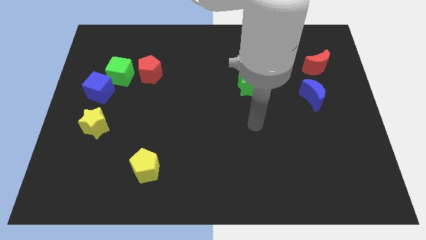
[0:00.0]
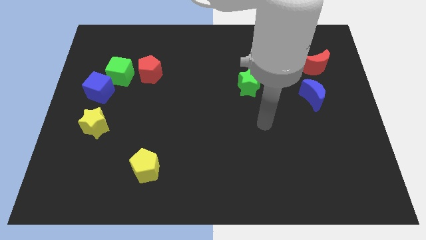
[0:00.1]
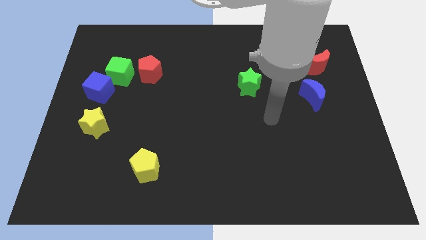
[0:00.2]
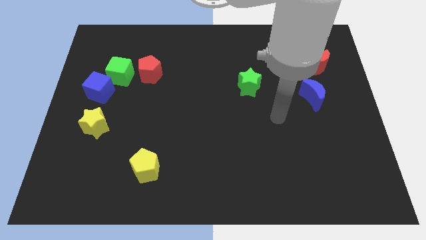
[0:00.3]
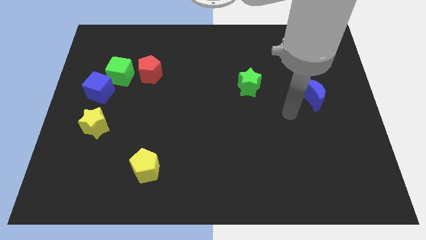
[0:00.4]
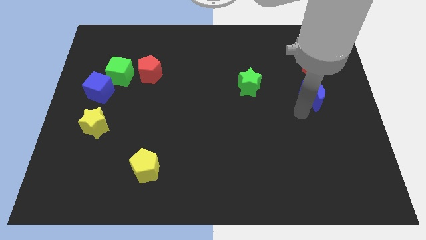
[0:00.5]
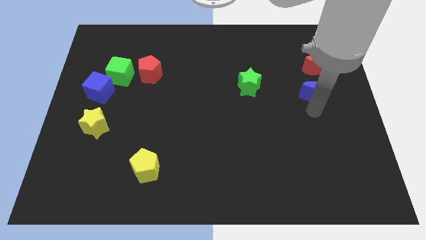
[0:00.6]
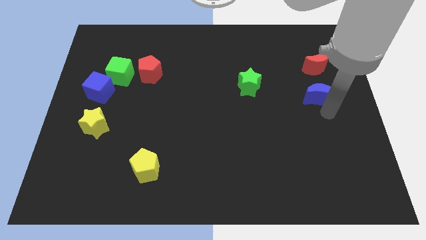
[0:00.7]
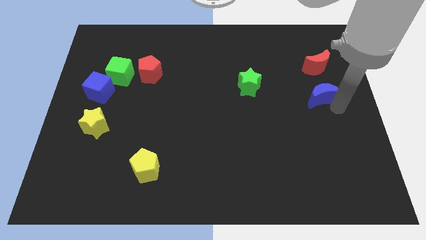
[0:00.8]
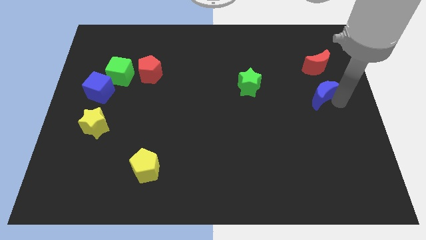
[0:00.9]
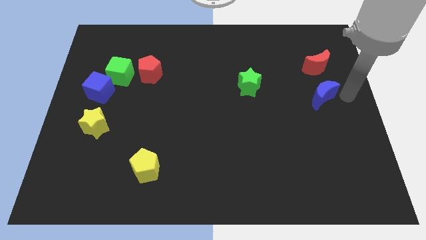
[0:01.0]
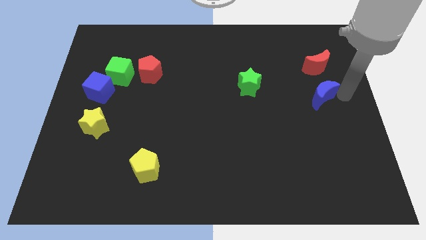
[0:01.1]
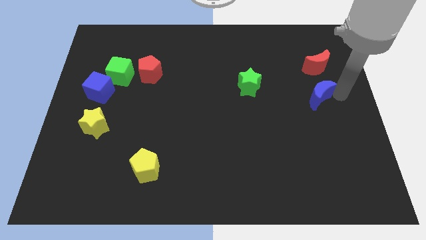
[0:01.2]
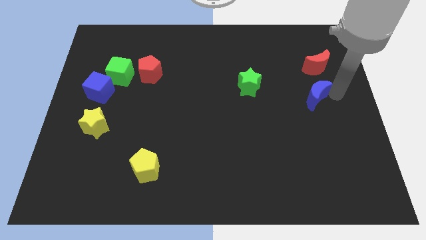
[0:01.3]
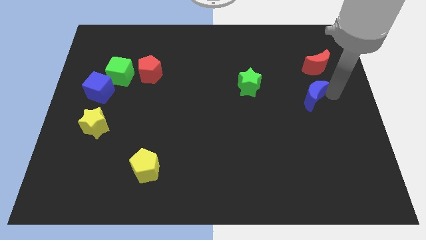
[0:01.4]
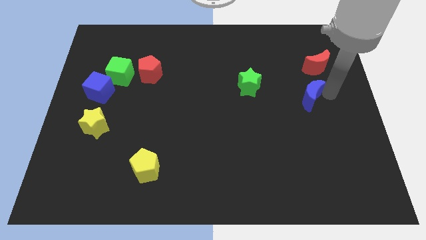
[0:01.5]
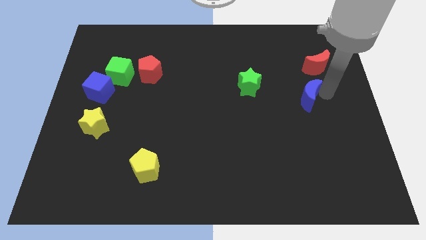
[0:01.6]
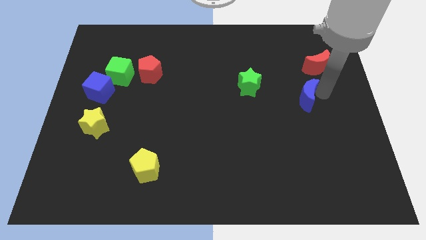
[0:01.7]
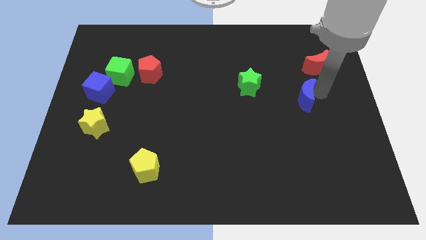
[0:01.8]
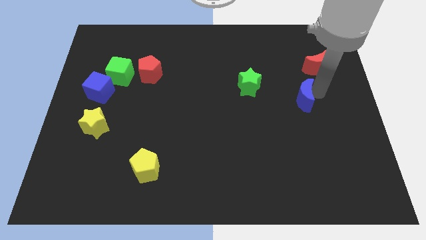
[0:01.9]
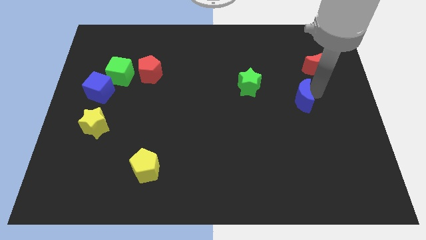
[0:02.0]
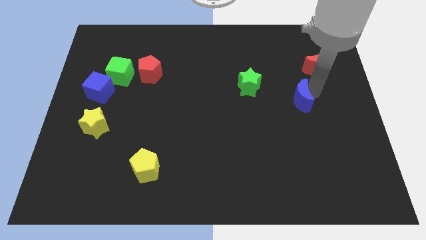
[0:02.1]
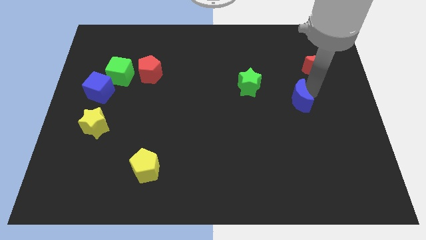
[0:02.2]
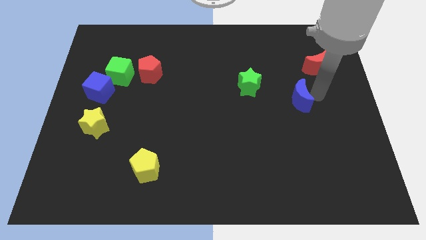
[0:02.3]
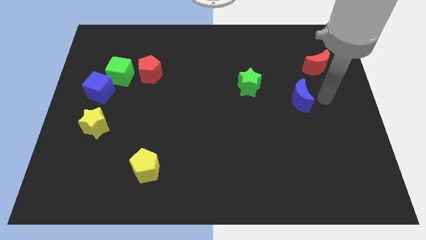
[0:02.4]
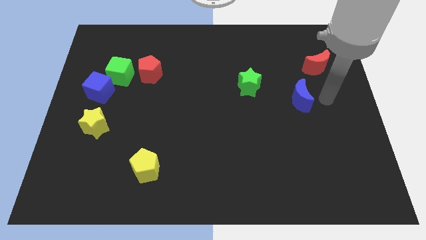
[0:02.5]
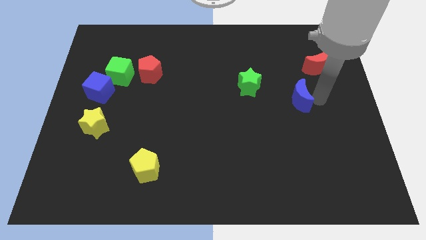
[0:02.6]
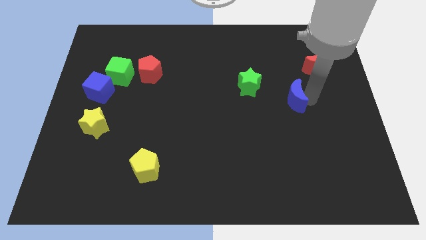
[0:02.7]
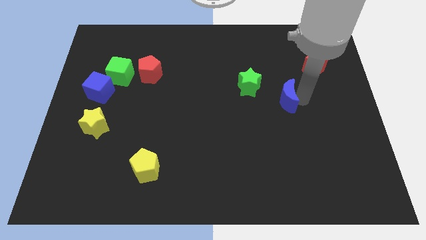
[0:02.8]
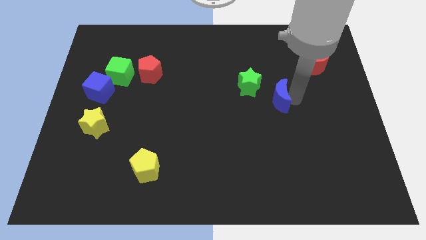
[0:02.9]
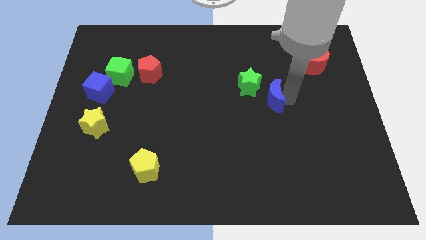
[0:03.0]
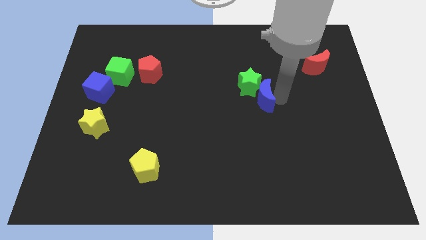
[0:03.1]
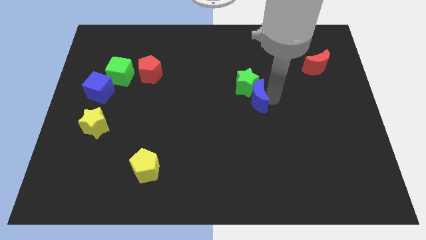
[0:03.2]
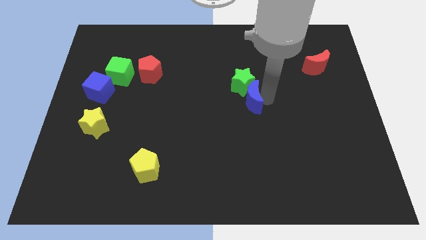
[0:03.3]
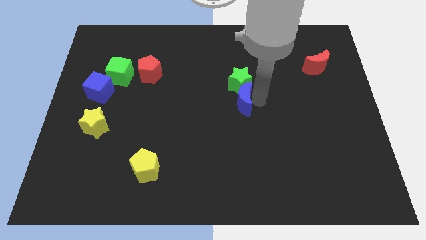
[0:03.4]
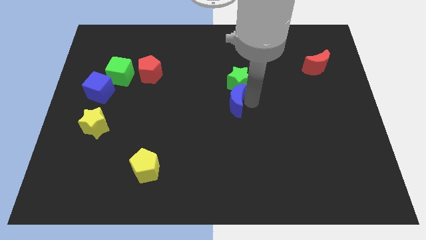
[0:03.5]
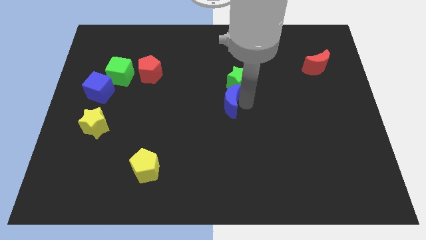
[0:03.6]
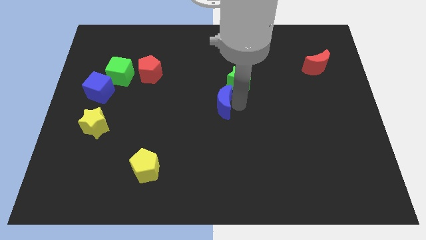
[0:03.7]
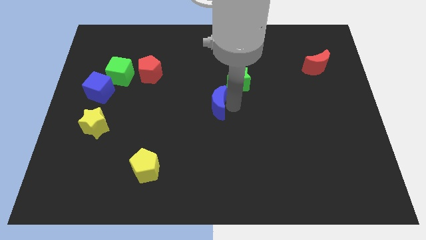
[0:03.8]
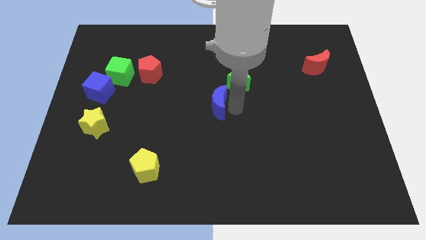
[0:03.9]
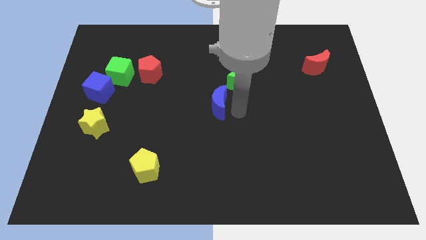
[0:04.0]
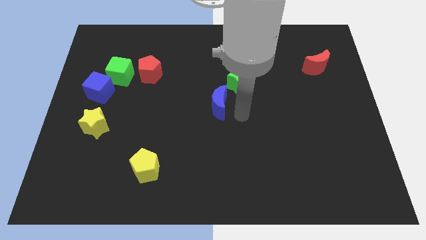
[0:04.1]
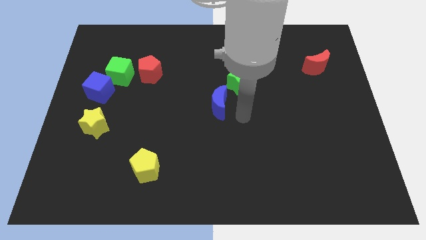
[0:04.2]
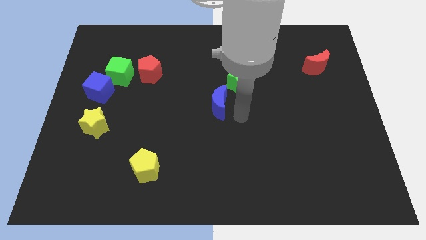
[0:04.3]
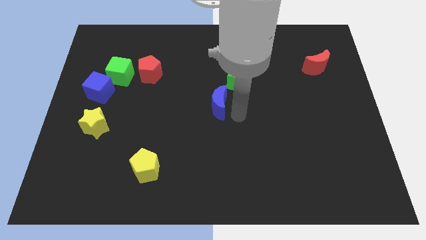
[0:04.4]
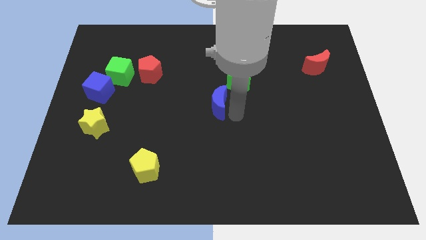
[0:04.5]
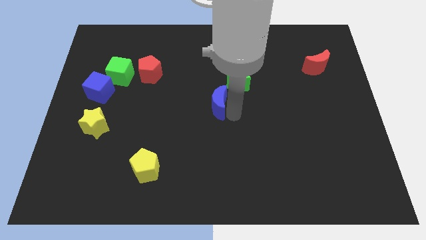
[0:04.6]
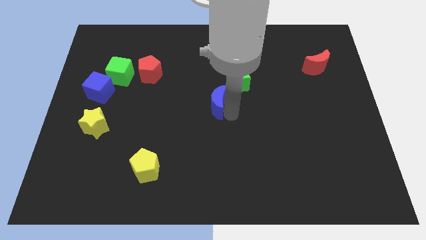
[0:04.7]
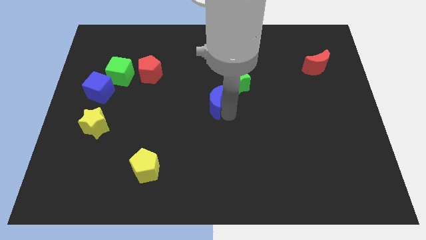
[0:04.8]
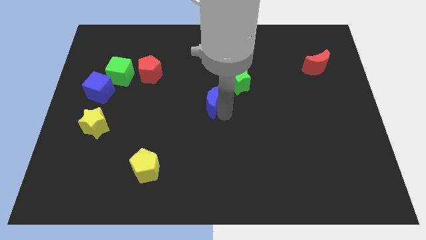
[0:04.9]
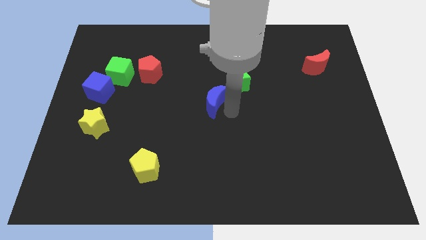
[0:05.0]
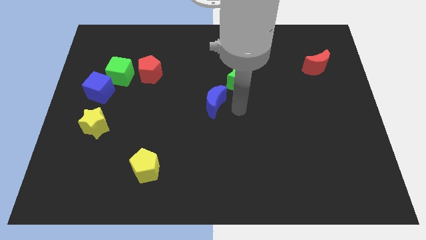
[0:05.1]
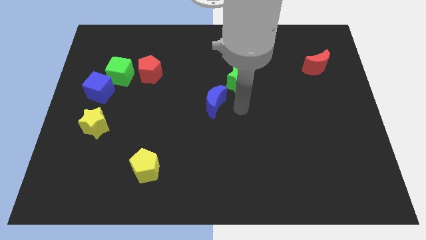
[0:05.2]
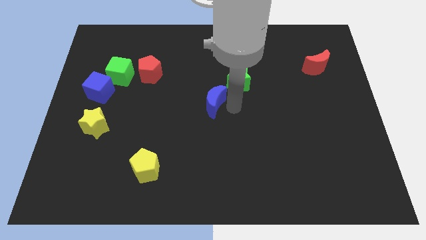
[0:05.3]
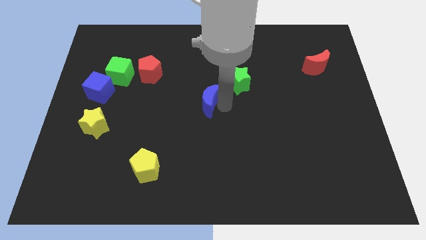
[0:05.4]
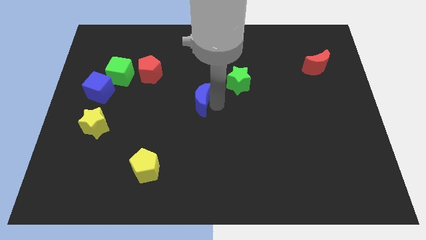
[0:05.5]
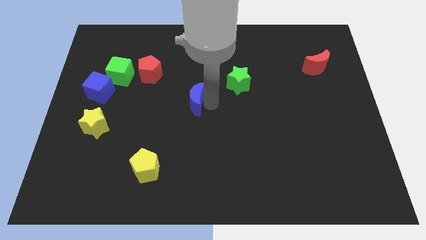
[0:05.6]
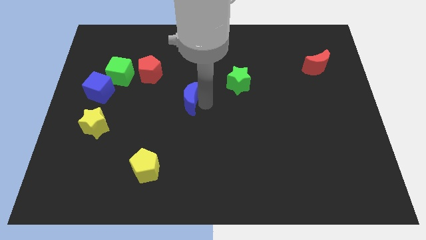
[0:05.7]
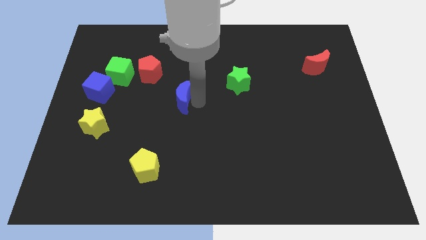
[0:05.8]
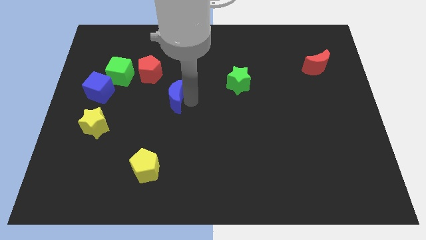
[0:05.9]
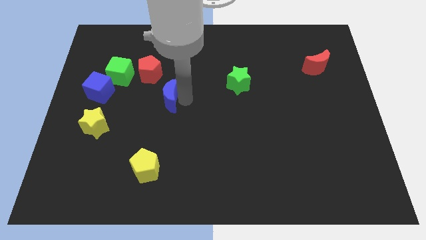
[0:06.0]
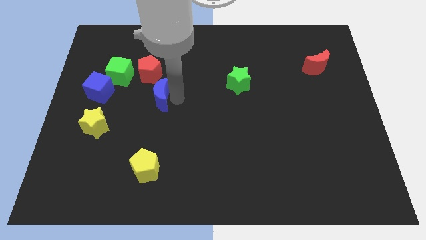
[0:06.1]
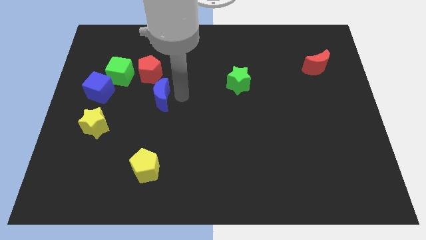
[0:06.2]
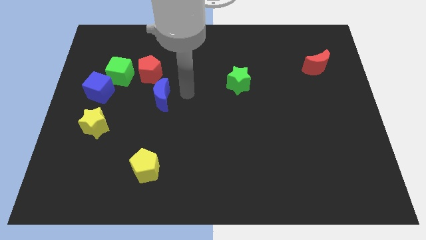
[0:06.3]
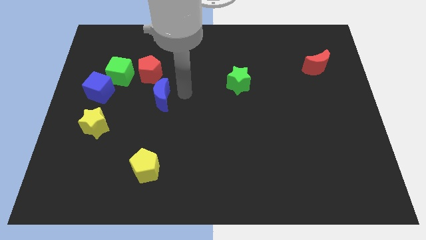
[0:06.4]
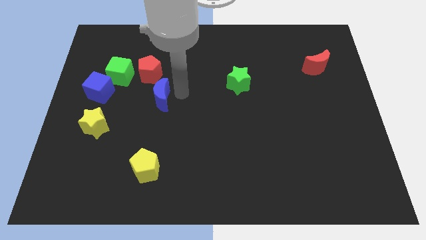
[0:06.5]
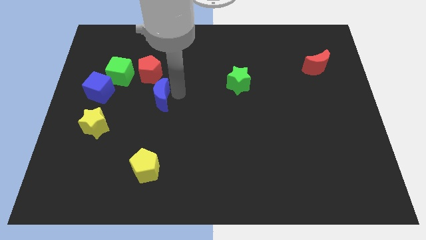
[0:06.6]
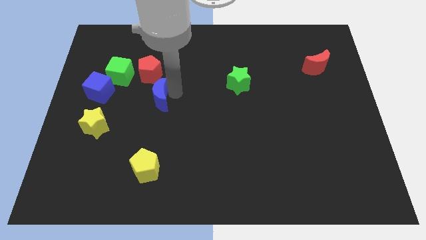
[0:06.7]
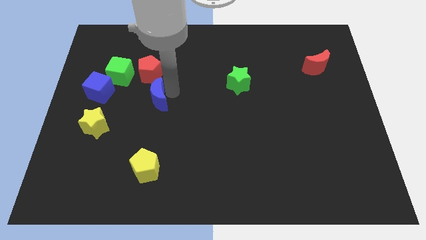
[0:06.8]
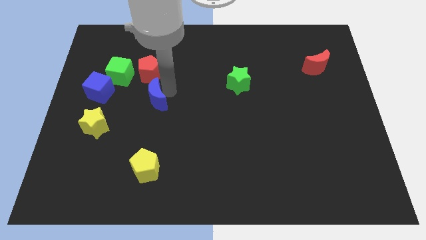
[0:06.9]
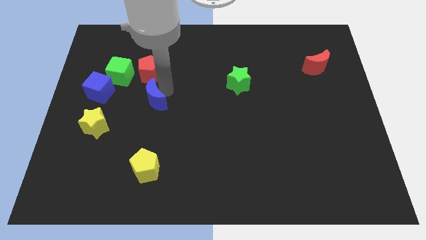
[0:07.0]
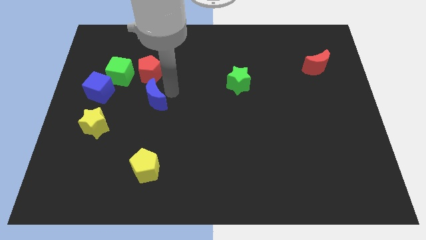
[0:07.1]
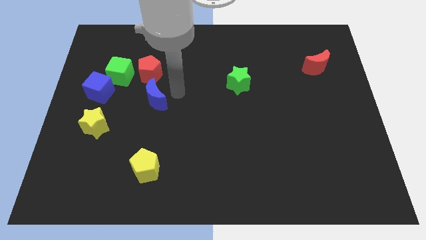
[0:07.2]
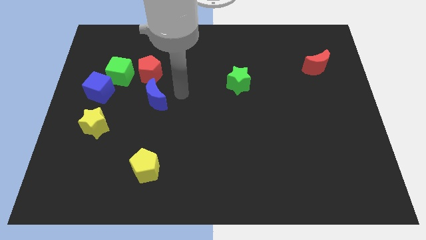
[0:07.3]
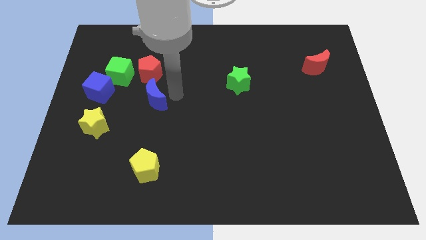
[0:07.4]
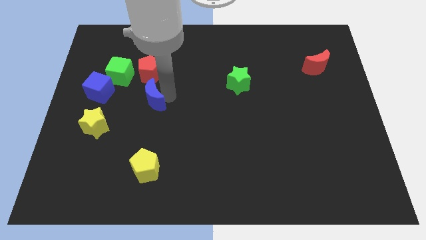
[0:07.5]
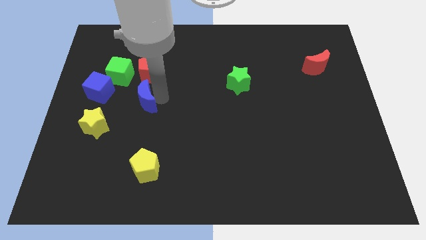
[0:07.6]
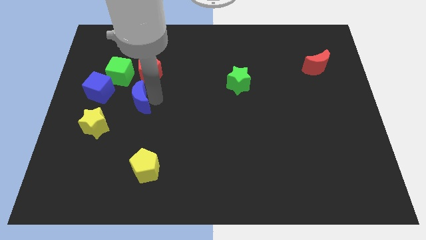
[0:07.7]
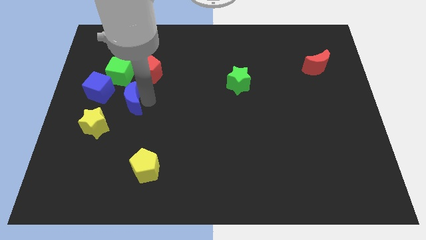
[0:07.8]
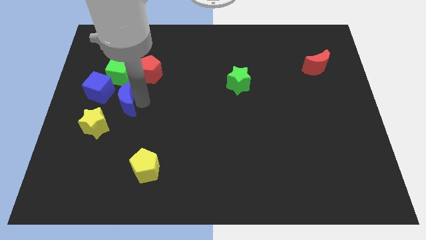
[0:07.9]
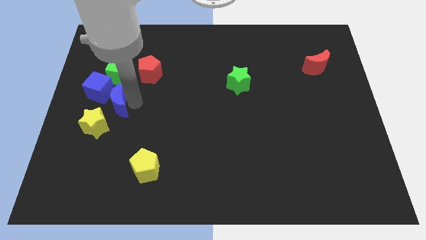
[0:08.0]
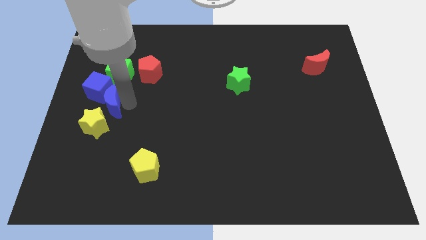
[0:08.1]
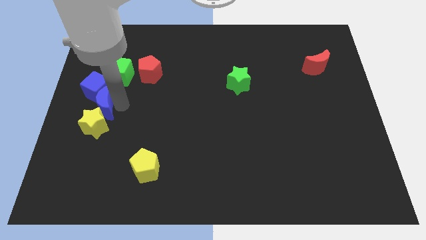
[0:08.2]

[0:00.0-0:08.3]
push the blue moon to the left side of the board
